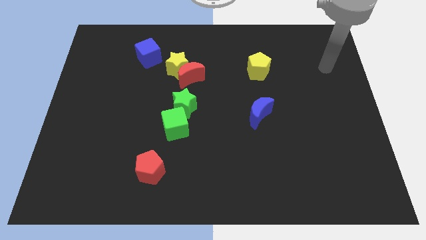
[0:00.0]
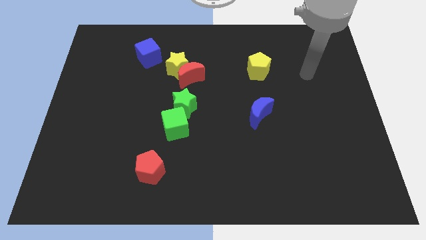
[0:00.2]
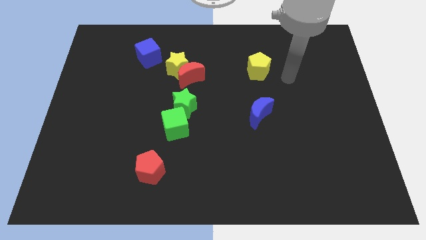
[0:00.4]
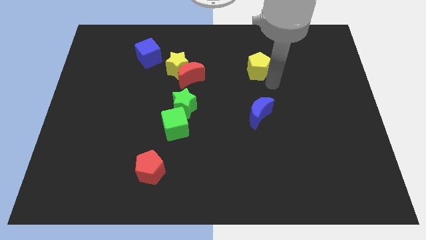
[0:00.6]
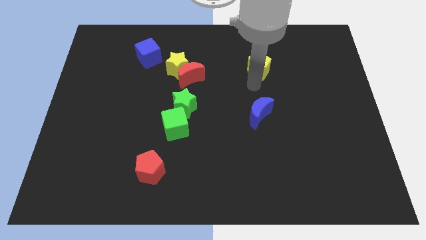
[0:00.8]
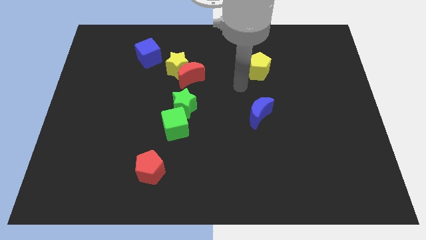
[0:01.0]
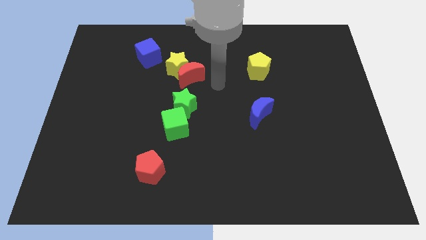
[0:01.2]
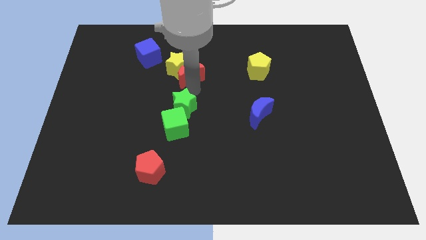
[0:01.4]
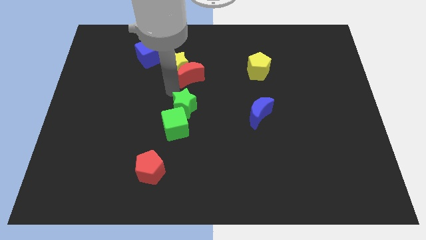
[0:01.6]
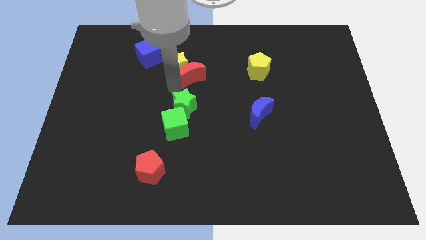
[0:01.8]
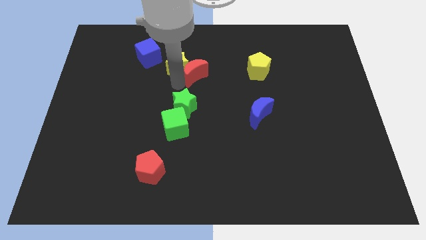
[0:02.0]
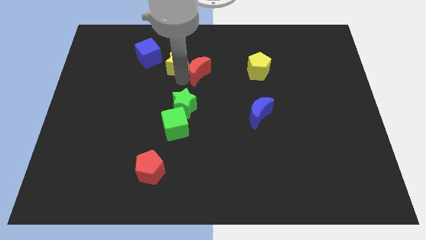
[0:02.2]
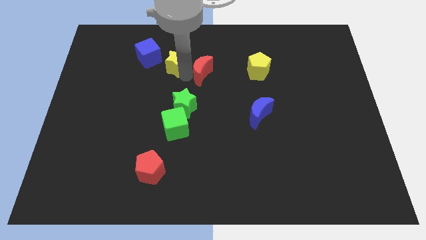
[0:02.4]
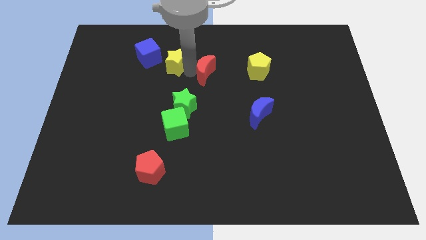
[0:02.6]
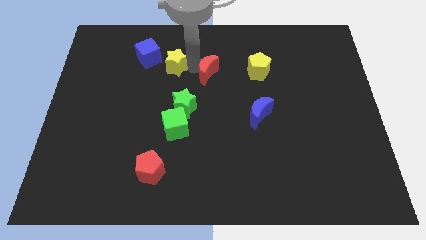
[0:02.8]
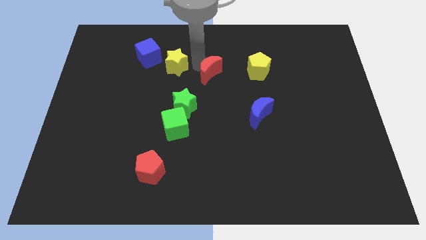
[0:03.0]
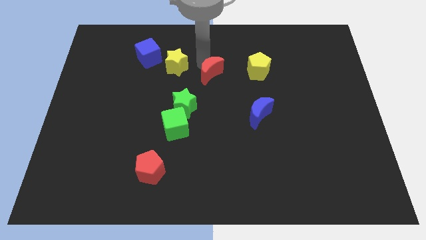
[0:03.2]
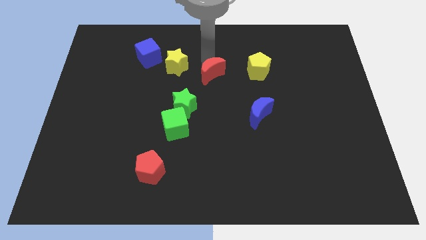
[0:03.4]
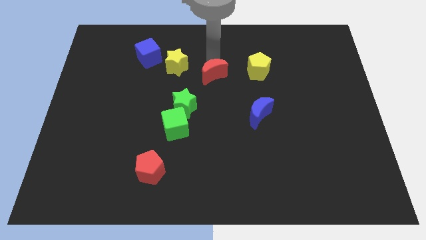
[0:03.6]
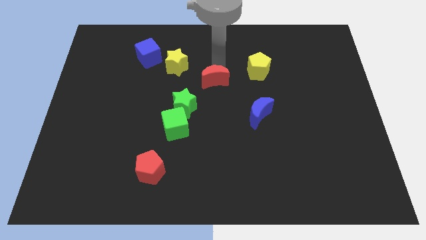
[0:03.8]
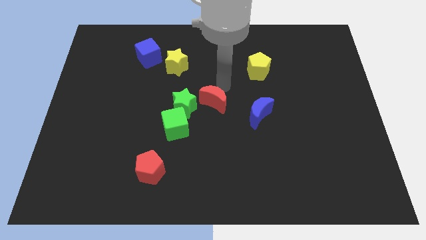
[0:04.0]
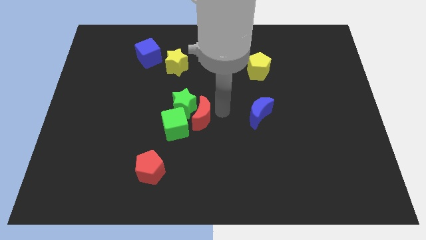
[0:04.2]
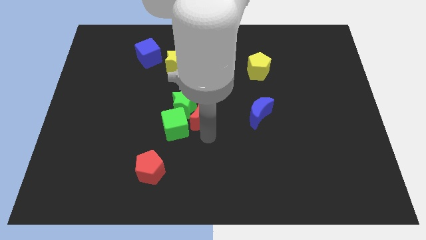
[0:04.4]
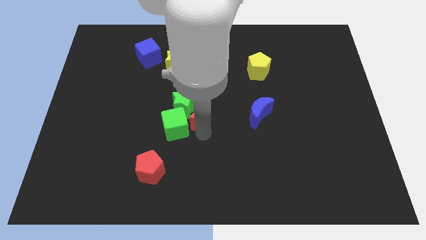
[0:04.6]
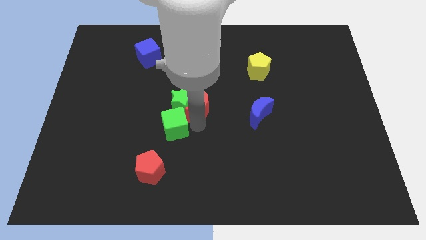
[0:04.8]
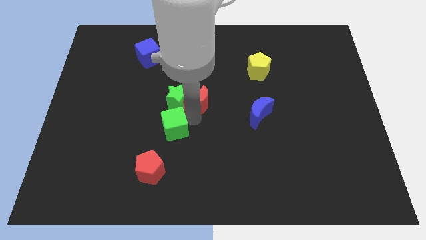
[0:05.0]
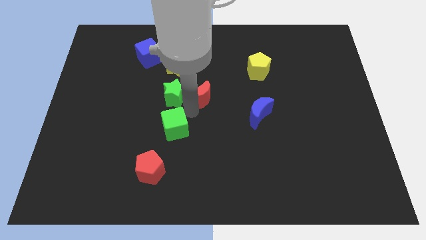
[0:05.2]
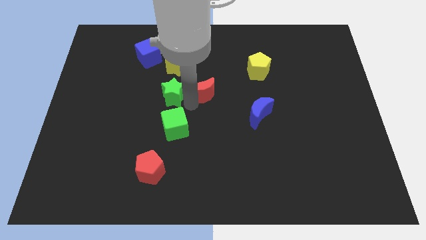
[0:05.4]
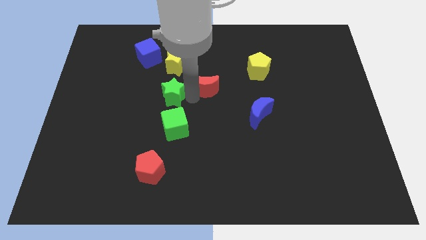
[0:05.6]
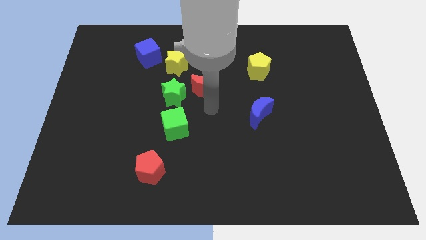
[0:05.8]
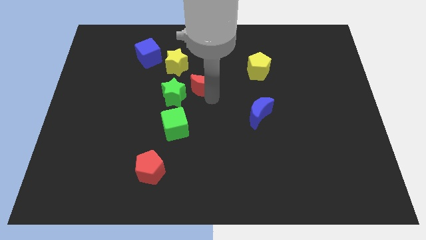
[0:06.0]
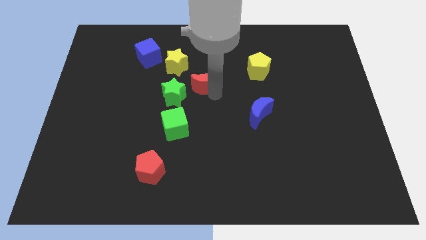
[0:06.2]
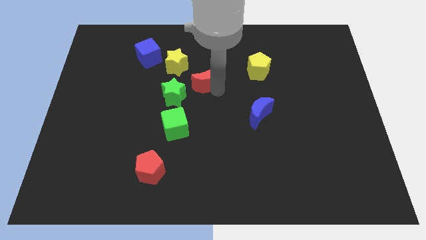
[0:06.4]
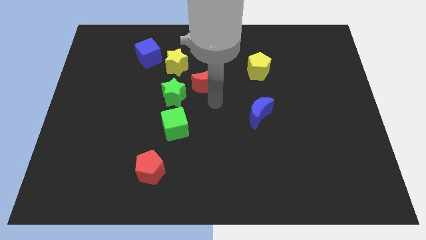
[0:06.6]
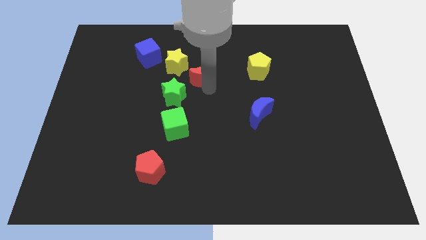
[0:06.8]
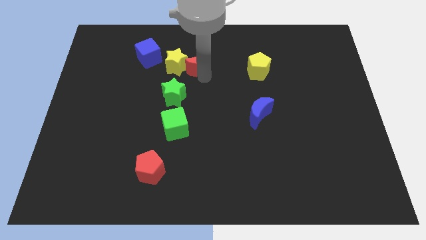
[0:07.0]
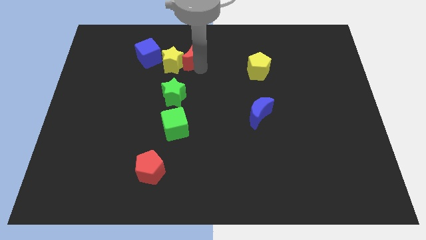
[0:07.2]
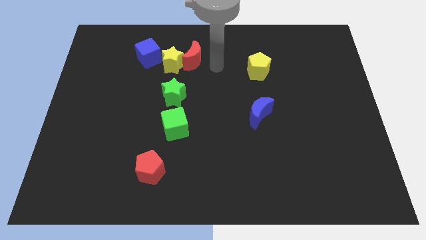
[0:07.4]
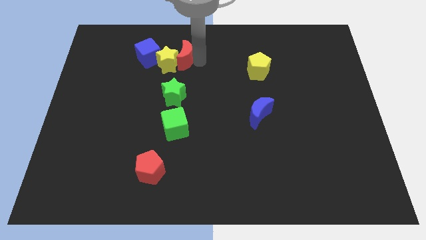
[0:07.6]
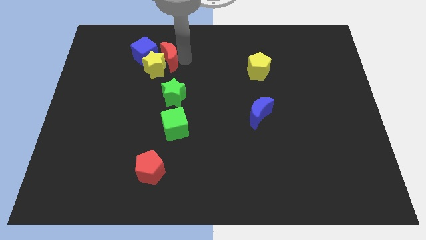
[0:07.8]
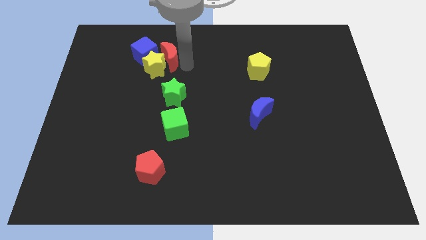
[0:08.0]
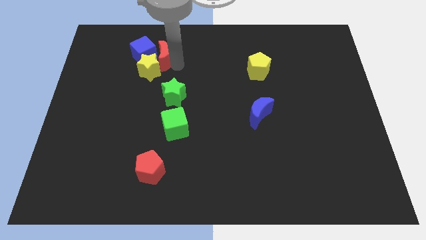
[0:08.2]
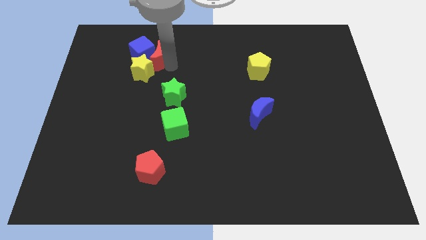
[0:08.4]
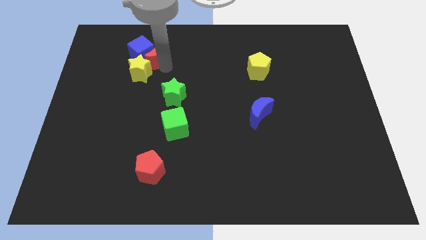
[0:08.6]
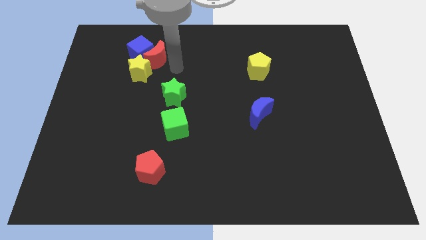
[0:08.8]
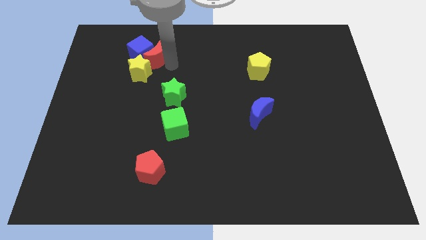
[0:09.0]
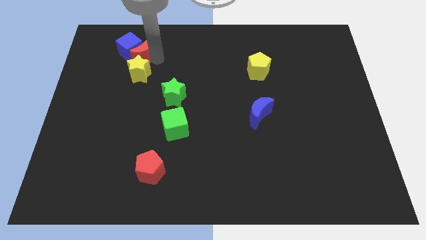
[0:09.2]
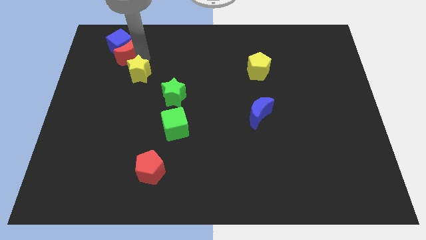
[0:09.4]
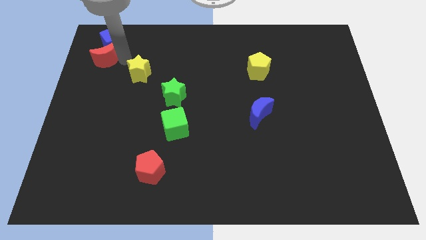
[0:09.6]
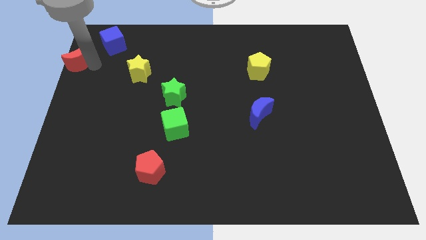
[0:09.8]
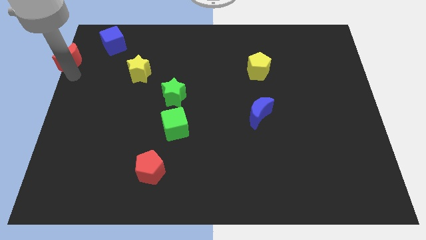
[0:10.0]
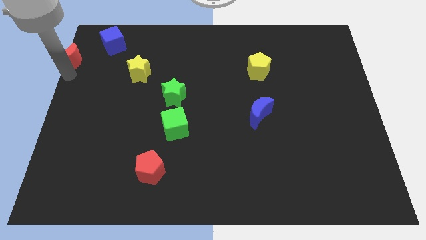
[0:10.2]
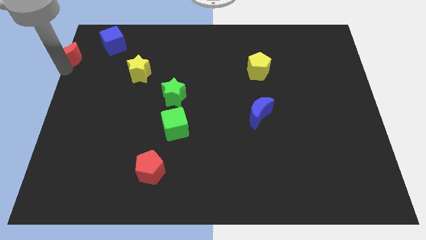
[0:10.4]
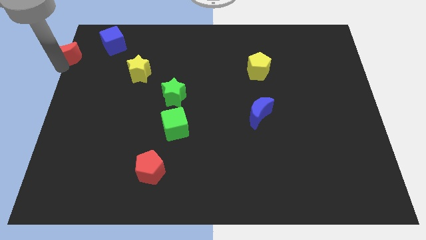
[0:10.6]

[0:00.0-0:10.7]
push the red moon to the top left

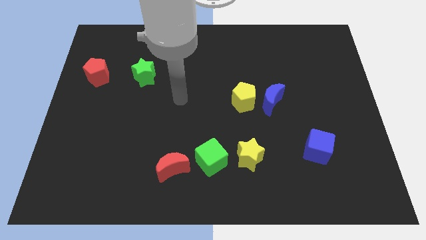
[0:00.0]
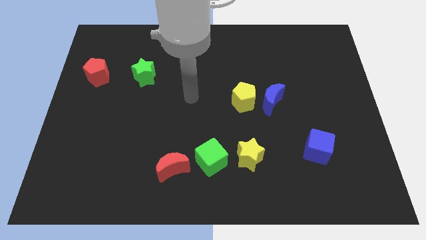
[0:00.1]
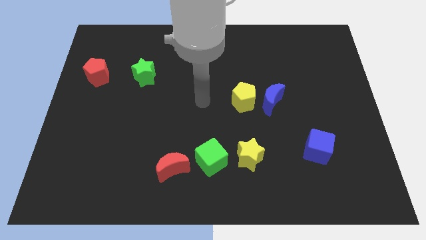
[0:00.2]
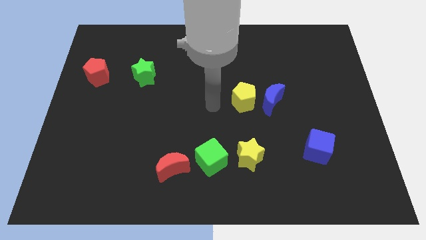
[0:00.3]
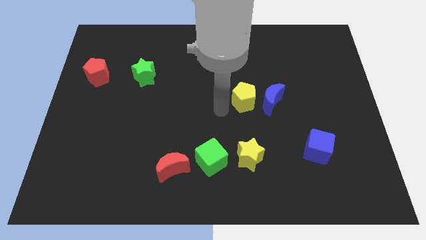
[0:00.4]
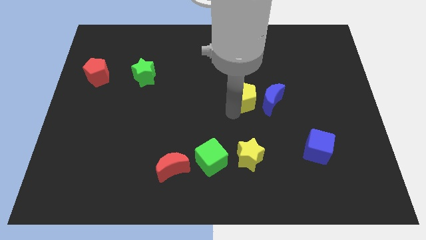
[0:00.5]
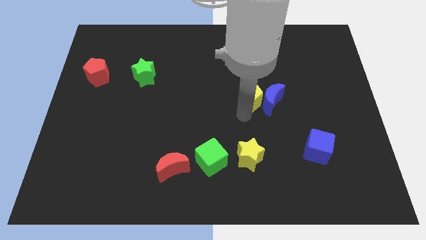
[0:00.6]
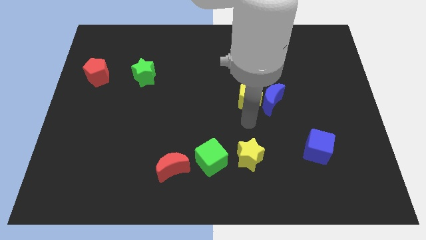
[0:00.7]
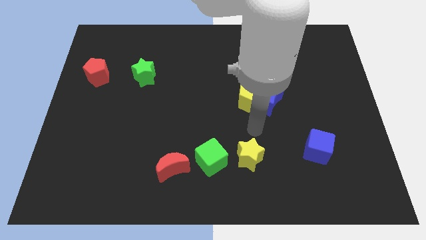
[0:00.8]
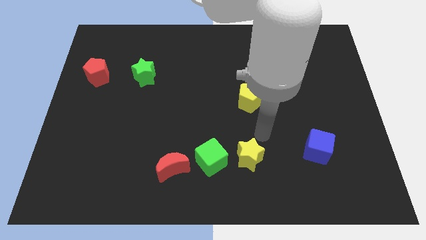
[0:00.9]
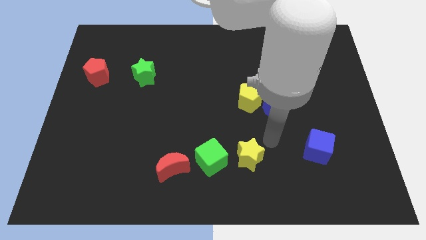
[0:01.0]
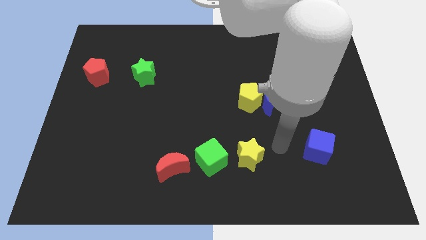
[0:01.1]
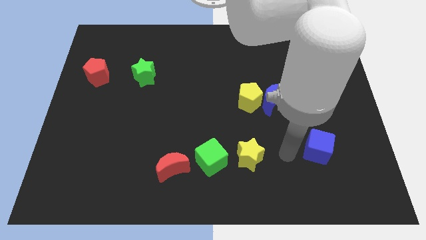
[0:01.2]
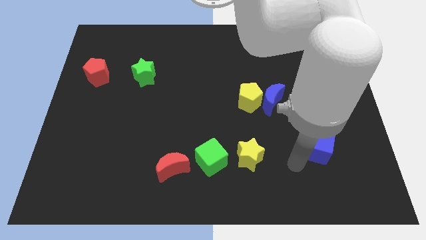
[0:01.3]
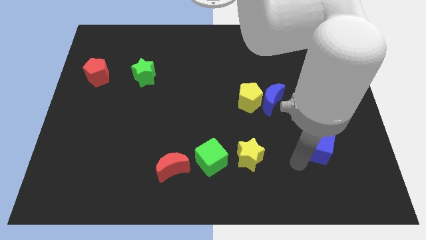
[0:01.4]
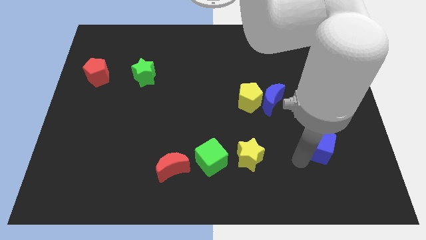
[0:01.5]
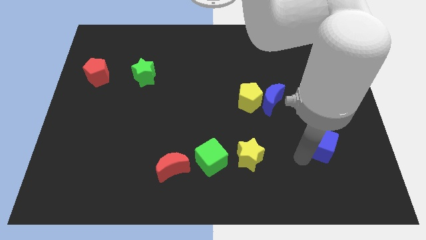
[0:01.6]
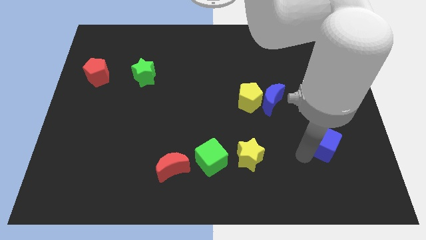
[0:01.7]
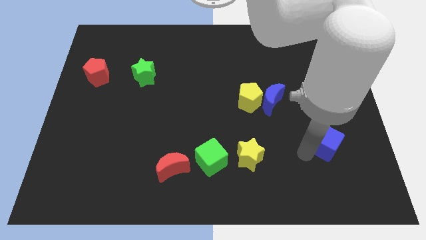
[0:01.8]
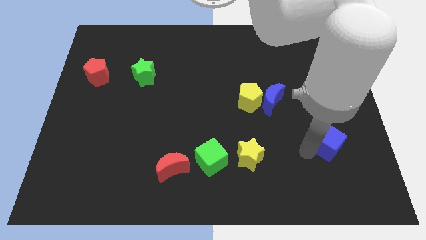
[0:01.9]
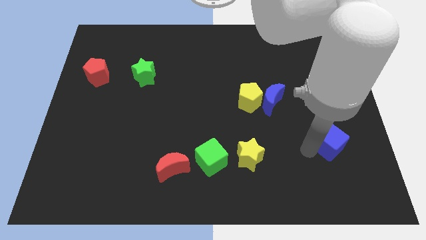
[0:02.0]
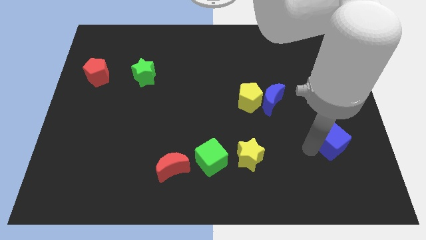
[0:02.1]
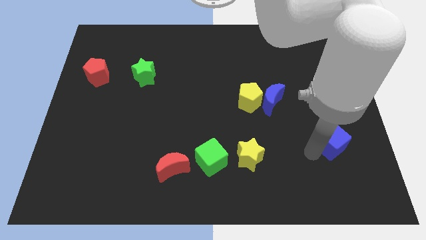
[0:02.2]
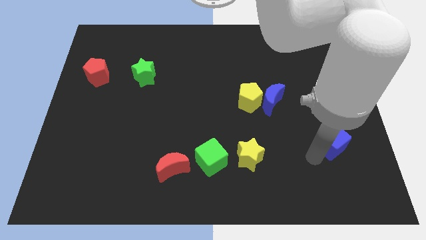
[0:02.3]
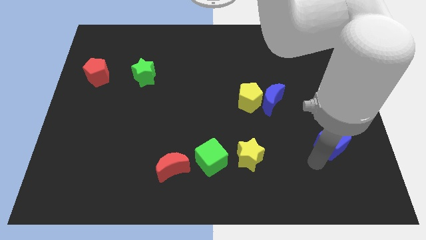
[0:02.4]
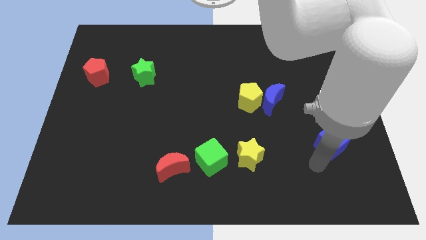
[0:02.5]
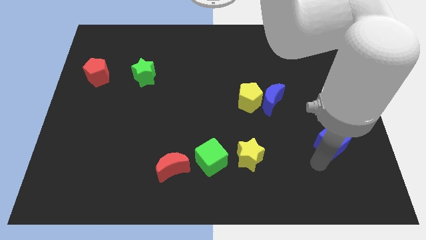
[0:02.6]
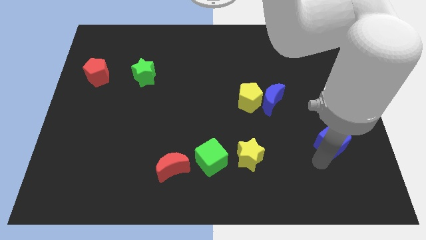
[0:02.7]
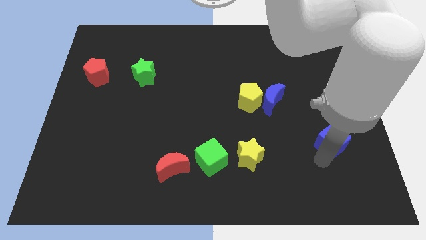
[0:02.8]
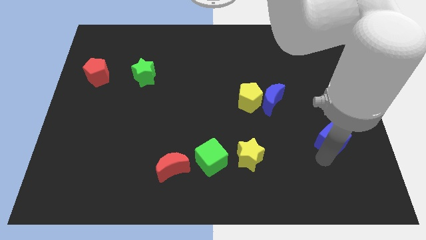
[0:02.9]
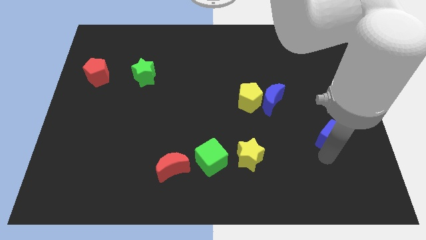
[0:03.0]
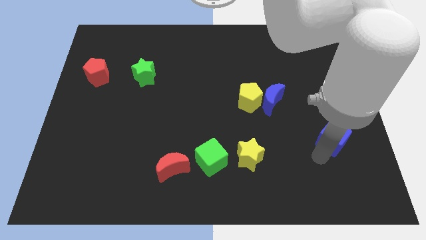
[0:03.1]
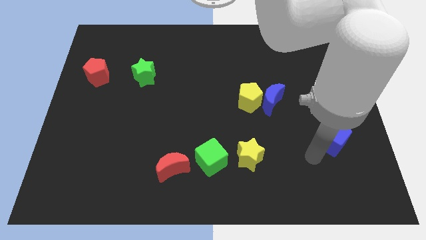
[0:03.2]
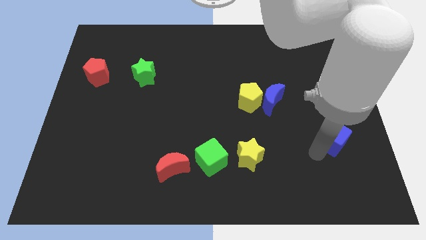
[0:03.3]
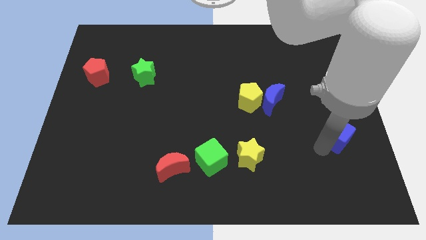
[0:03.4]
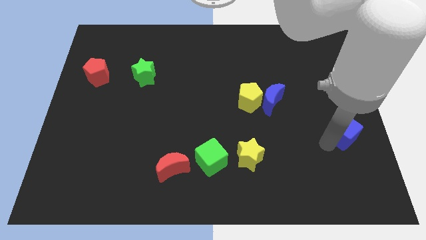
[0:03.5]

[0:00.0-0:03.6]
push the blue cube to the right side of the board
